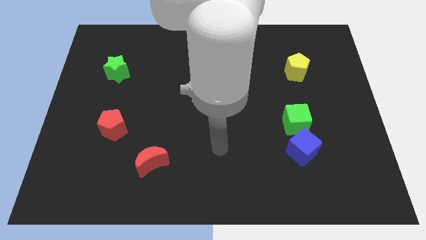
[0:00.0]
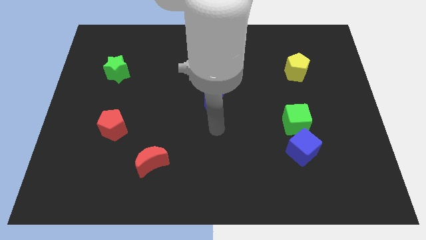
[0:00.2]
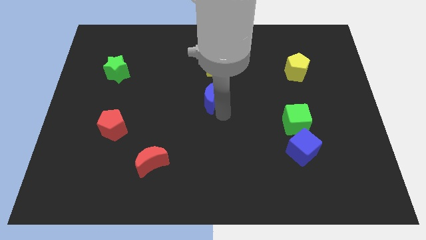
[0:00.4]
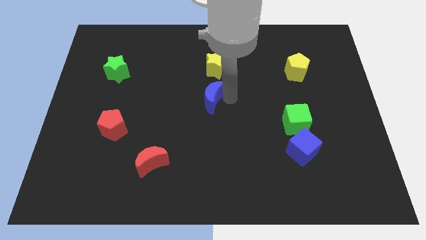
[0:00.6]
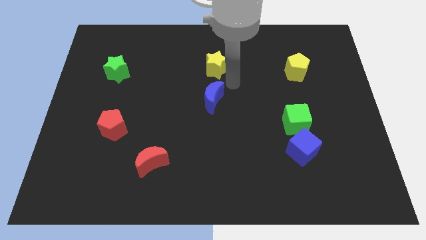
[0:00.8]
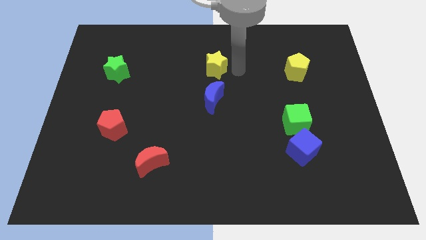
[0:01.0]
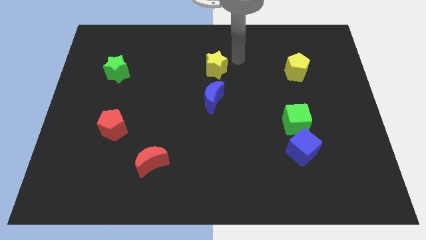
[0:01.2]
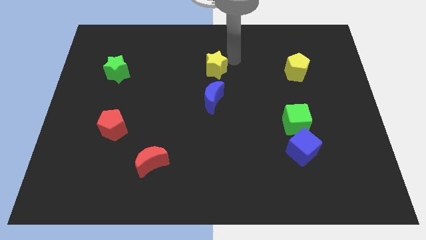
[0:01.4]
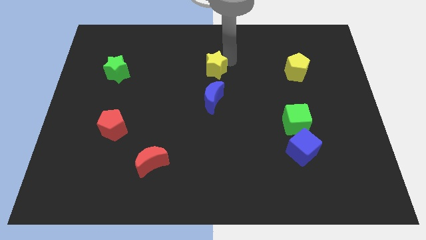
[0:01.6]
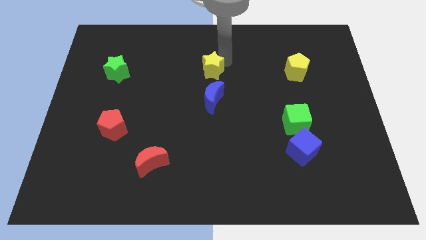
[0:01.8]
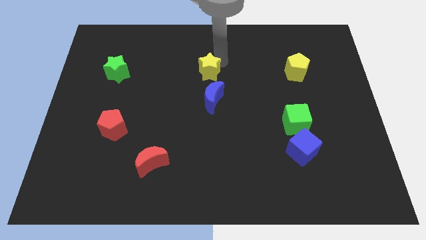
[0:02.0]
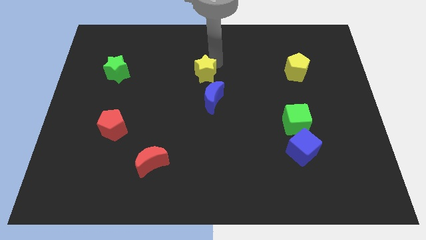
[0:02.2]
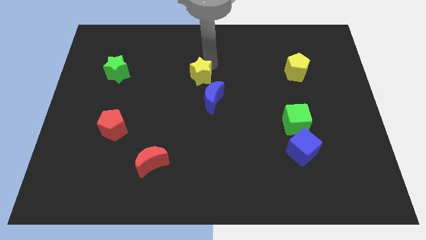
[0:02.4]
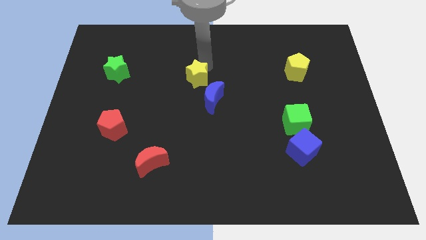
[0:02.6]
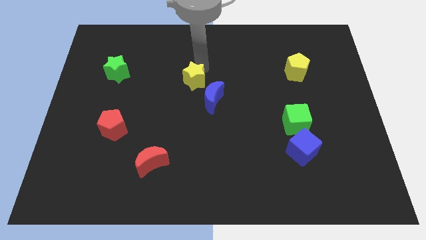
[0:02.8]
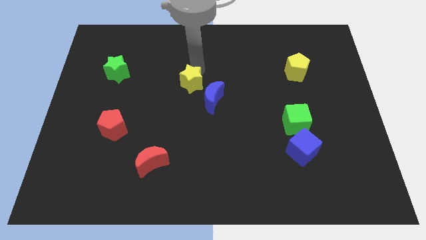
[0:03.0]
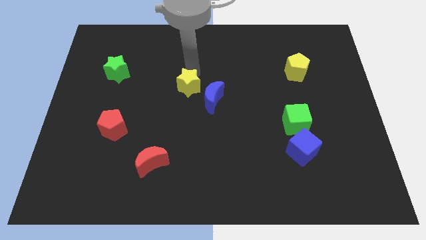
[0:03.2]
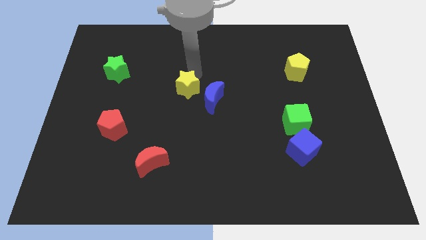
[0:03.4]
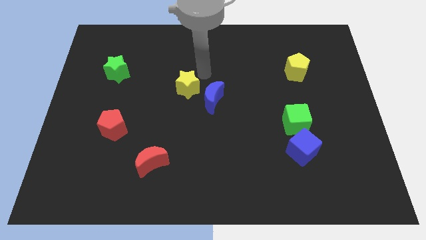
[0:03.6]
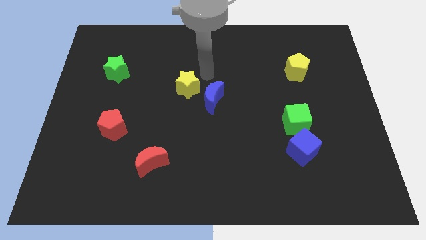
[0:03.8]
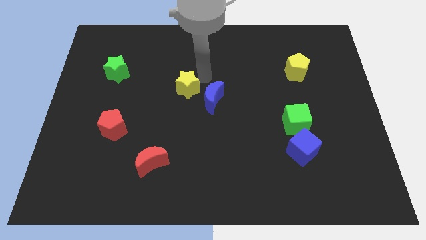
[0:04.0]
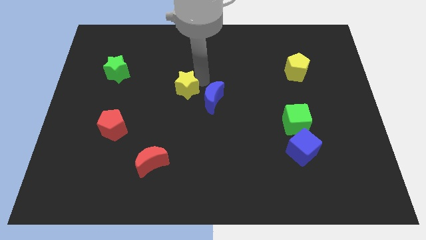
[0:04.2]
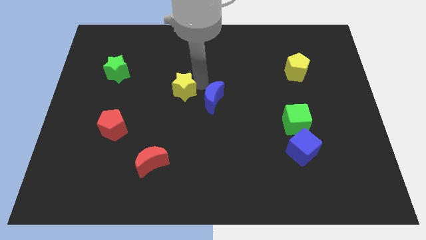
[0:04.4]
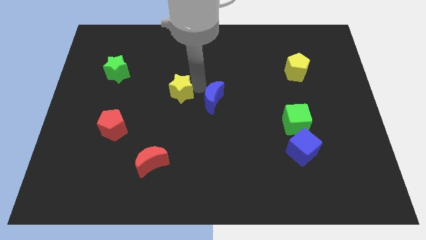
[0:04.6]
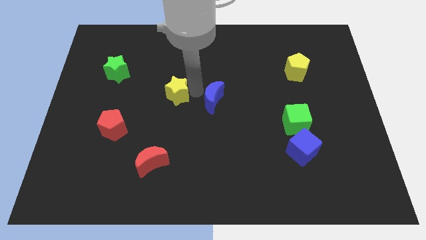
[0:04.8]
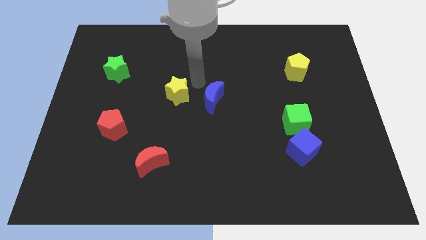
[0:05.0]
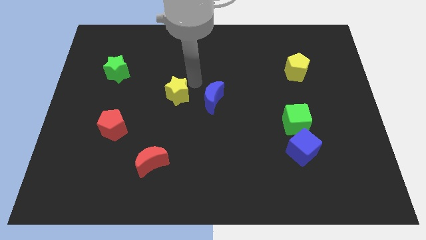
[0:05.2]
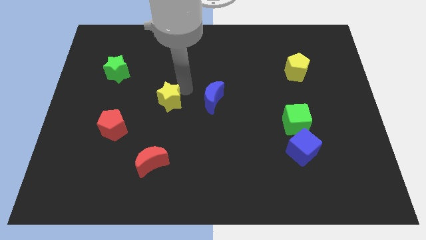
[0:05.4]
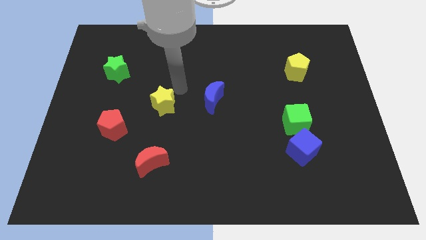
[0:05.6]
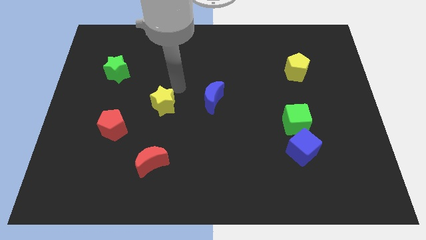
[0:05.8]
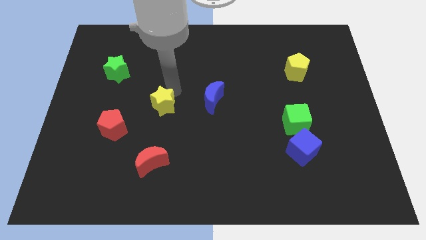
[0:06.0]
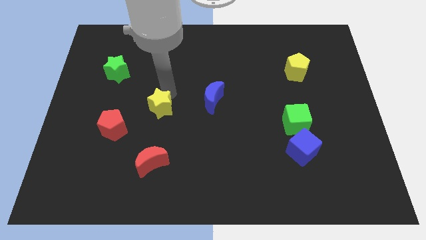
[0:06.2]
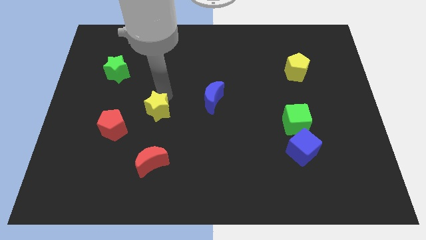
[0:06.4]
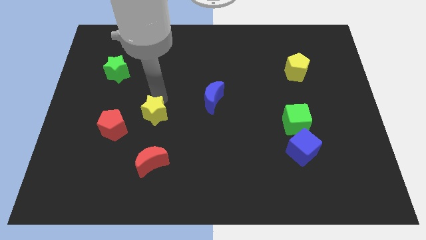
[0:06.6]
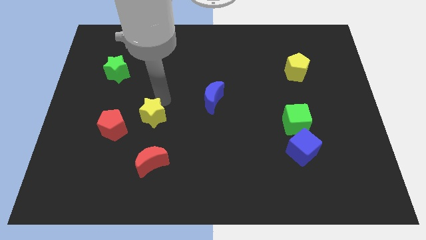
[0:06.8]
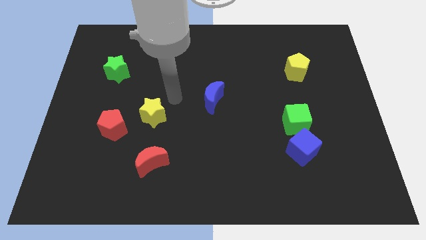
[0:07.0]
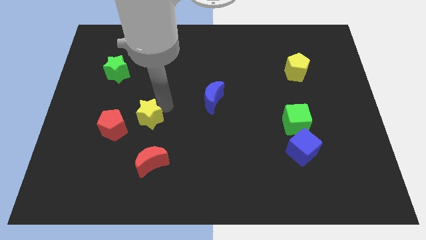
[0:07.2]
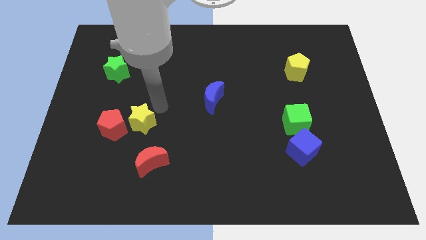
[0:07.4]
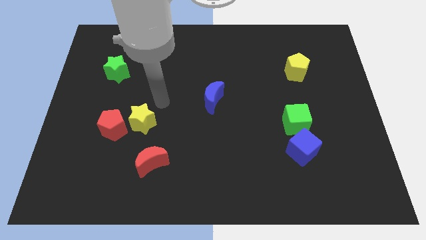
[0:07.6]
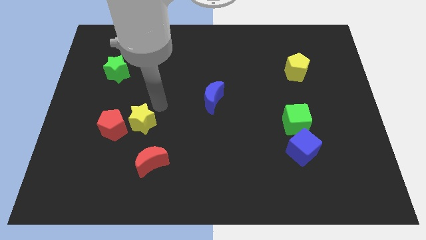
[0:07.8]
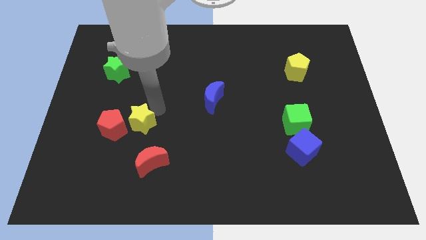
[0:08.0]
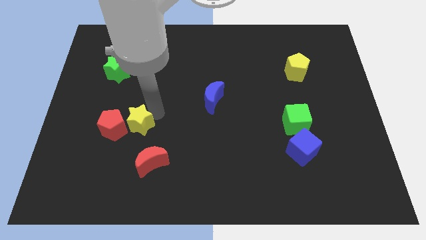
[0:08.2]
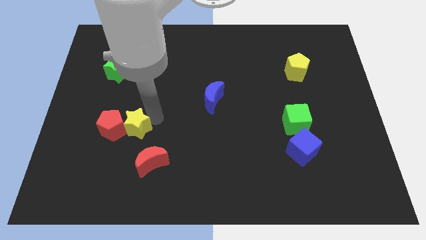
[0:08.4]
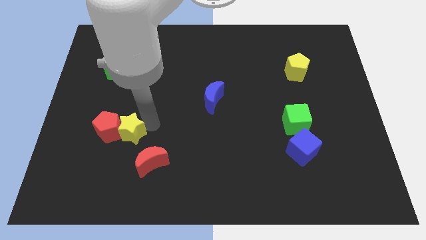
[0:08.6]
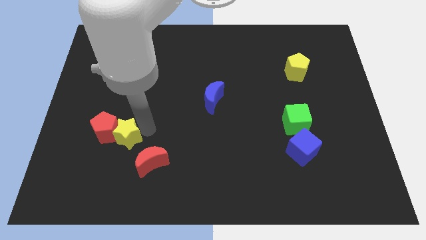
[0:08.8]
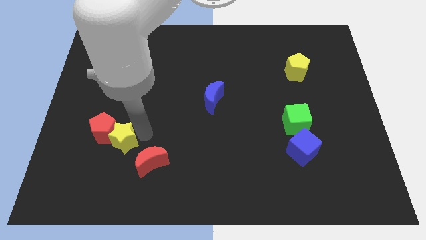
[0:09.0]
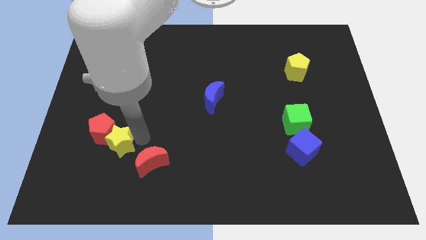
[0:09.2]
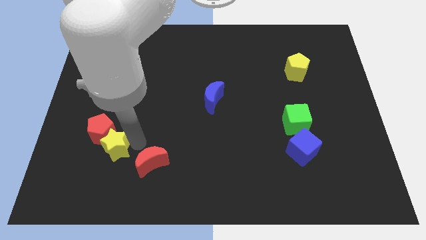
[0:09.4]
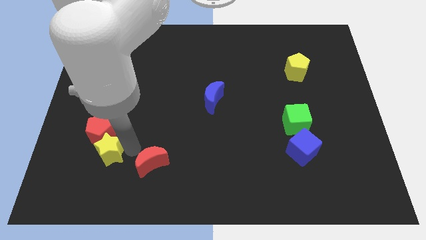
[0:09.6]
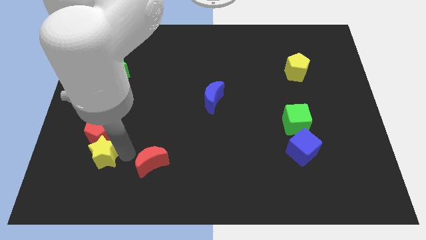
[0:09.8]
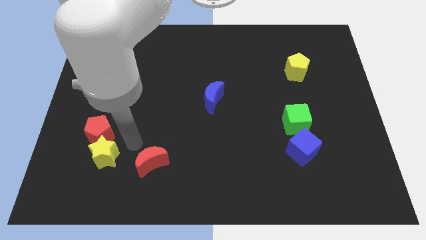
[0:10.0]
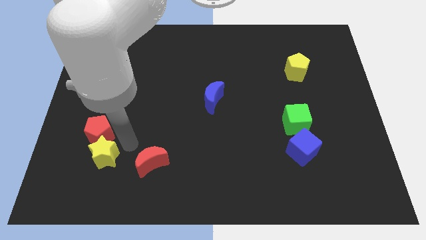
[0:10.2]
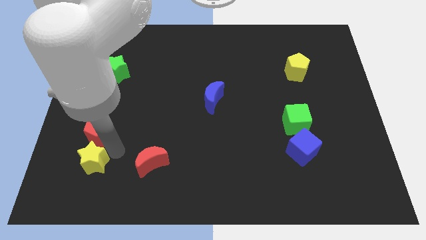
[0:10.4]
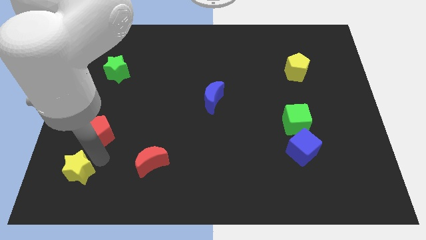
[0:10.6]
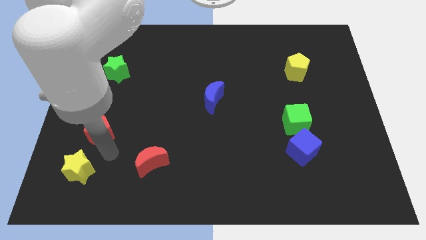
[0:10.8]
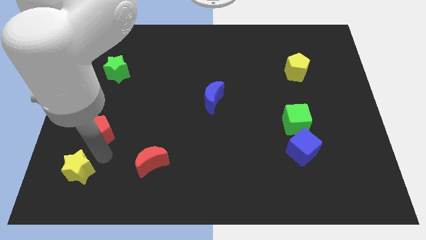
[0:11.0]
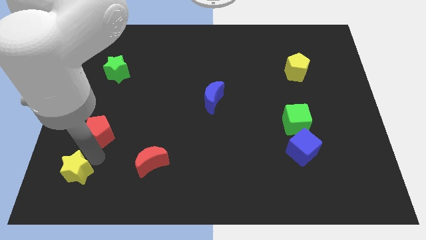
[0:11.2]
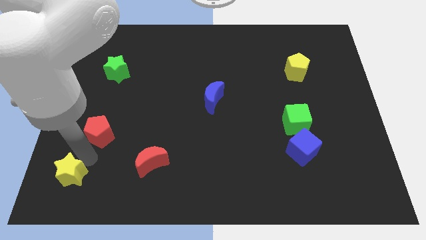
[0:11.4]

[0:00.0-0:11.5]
move the yellow star to the bottom left

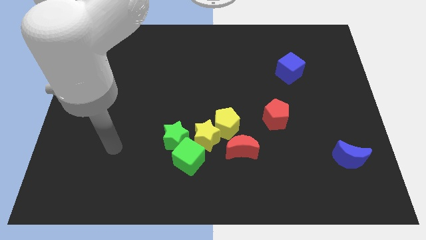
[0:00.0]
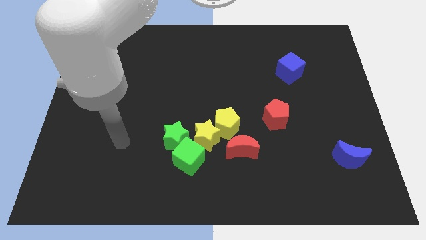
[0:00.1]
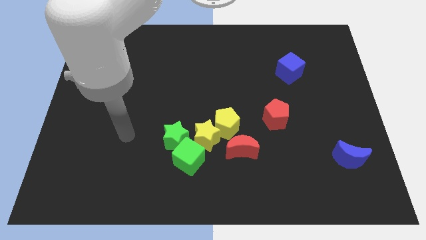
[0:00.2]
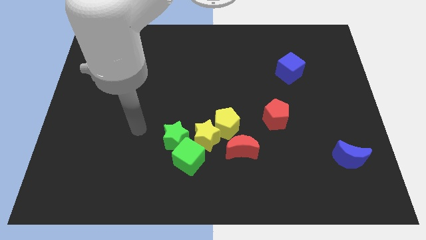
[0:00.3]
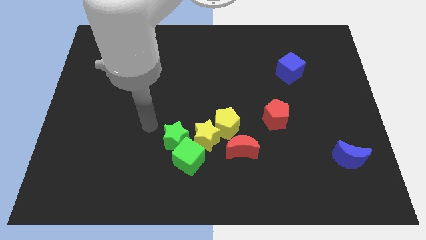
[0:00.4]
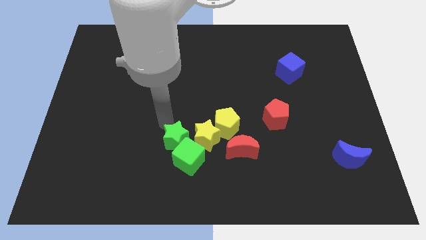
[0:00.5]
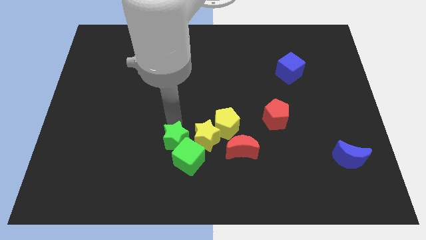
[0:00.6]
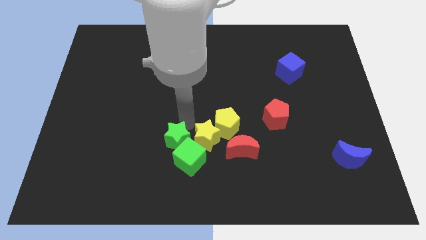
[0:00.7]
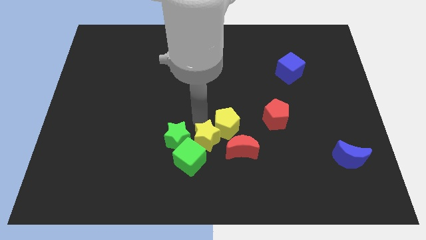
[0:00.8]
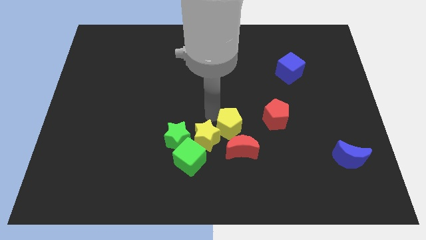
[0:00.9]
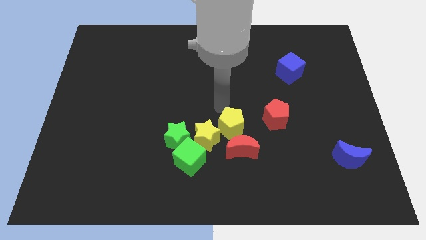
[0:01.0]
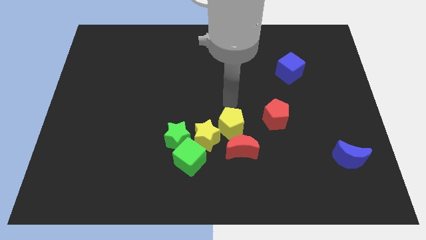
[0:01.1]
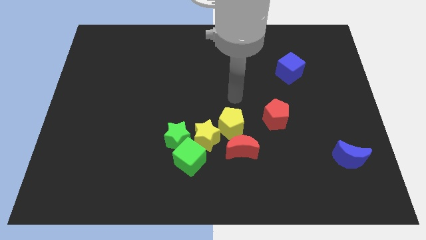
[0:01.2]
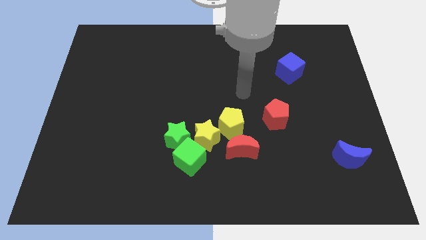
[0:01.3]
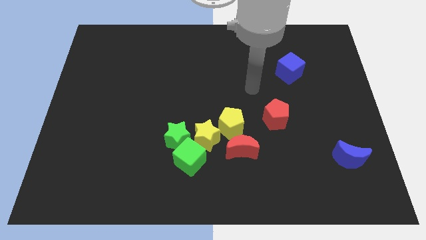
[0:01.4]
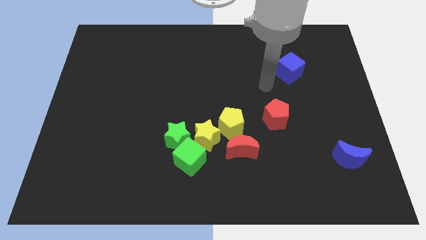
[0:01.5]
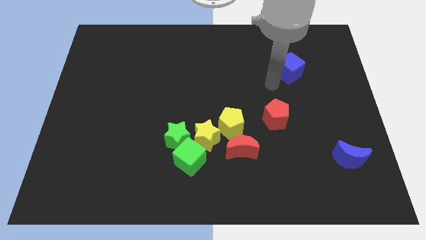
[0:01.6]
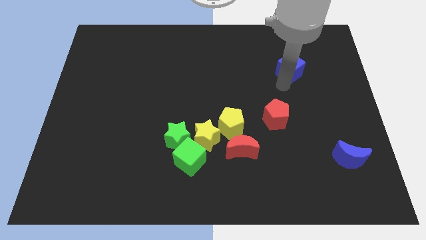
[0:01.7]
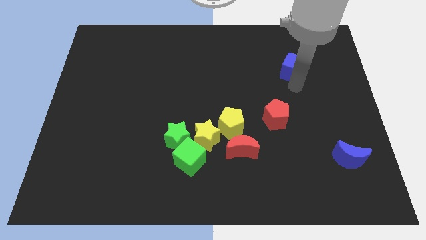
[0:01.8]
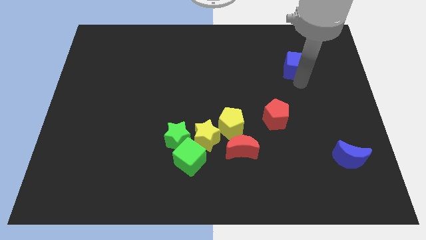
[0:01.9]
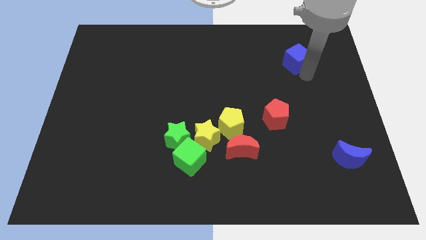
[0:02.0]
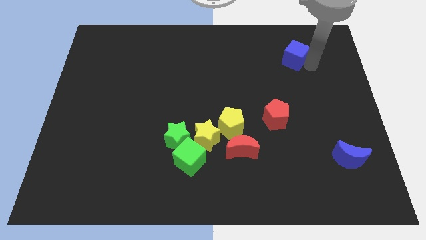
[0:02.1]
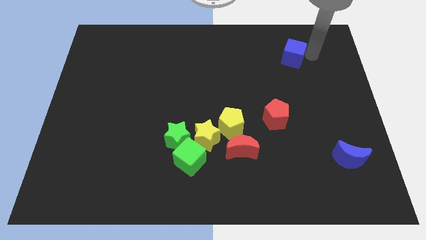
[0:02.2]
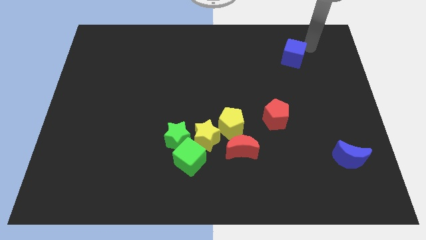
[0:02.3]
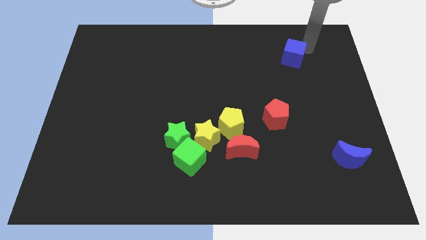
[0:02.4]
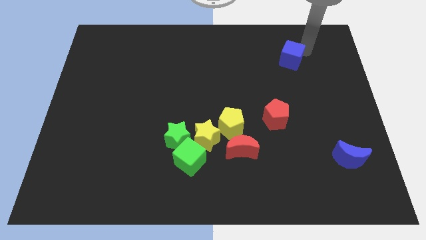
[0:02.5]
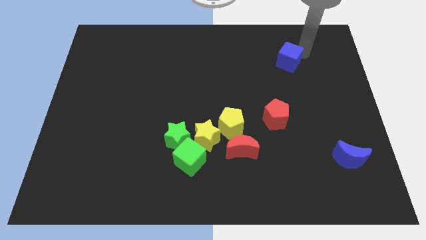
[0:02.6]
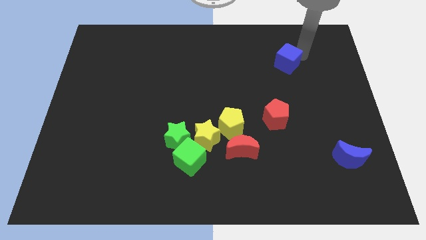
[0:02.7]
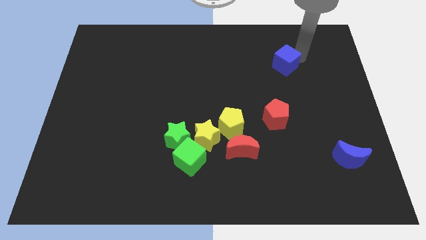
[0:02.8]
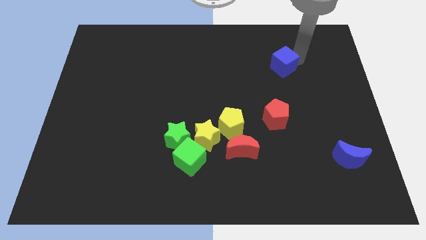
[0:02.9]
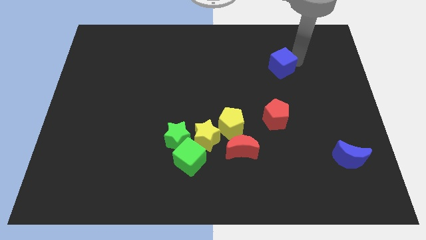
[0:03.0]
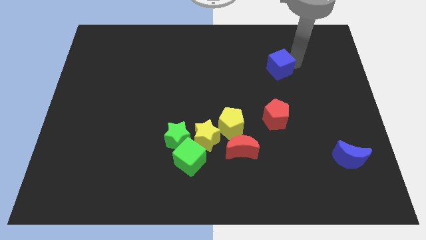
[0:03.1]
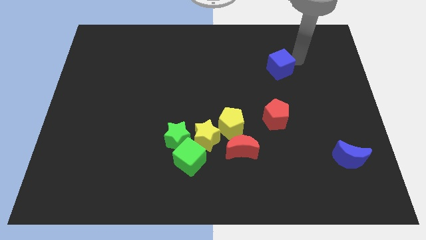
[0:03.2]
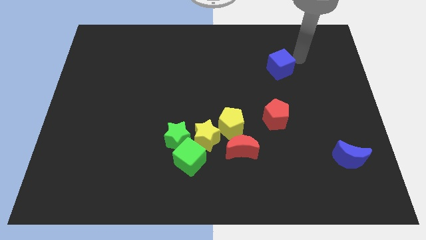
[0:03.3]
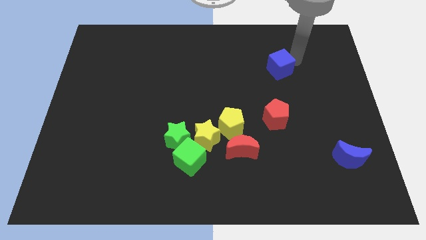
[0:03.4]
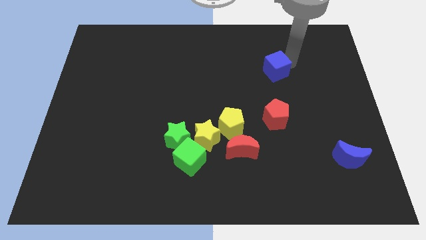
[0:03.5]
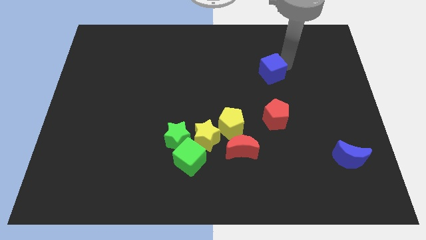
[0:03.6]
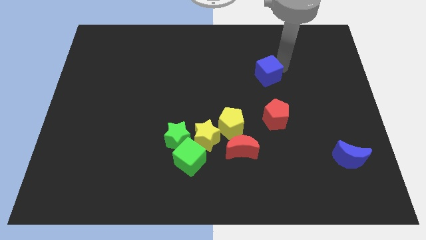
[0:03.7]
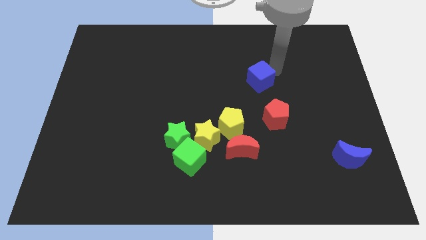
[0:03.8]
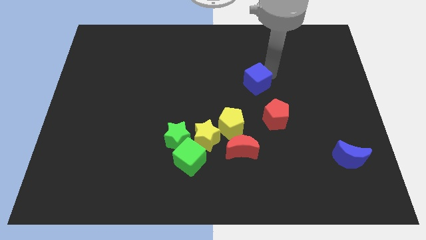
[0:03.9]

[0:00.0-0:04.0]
push the blue cube to the center
